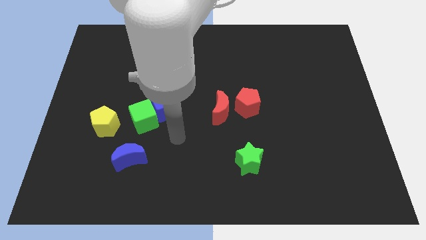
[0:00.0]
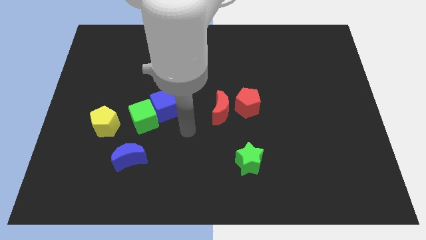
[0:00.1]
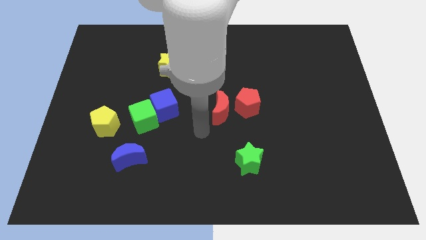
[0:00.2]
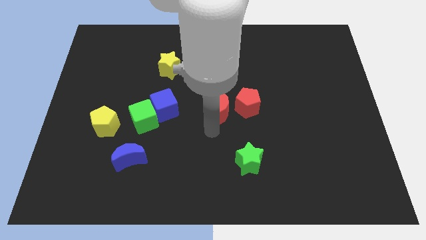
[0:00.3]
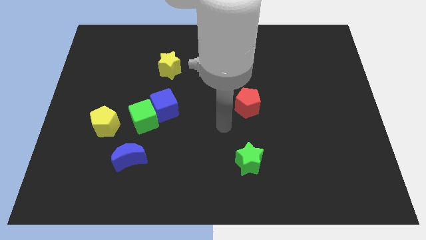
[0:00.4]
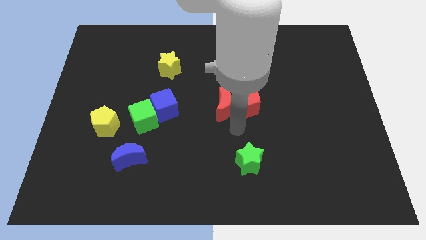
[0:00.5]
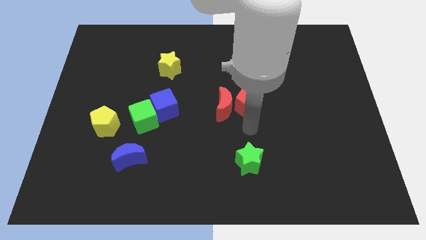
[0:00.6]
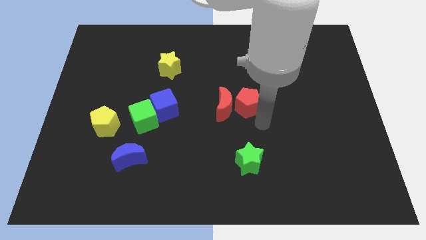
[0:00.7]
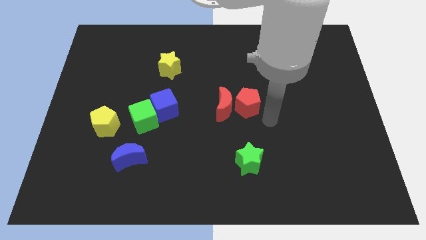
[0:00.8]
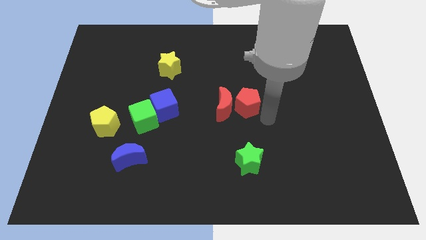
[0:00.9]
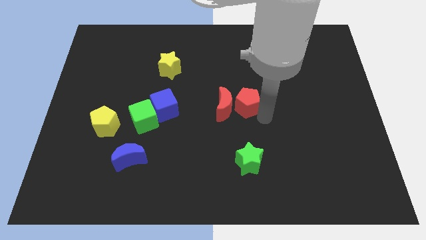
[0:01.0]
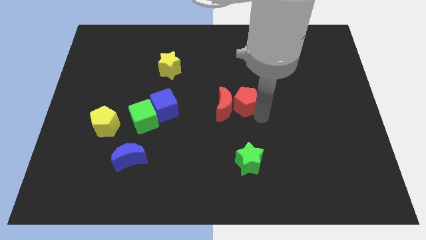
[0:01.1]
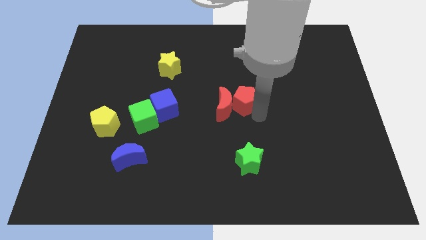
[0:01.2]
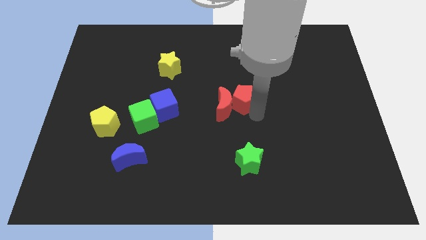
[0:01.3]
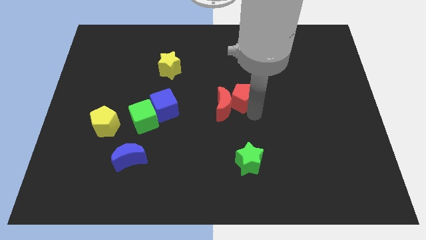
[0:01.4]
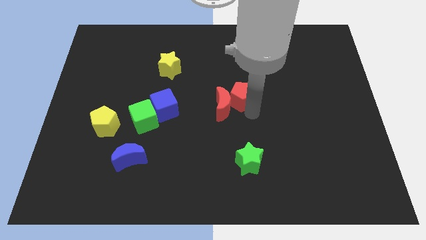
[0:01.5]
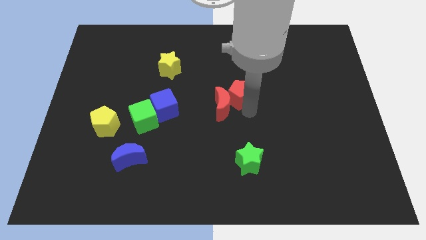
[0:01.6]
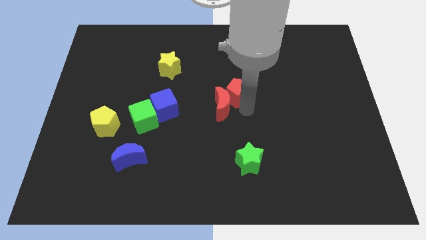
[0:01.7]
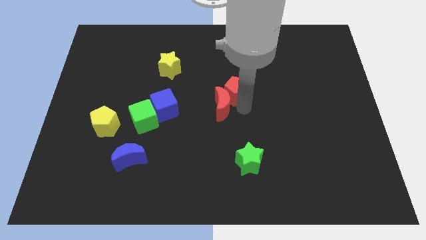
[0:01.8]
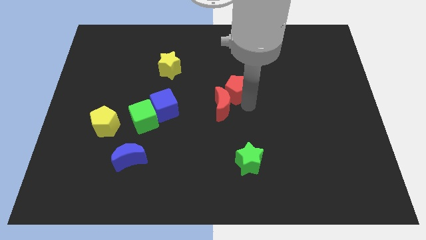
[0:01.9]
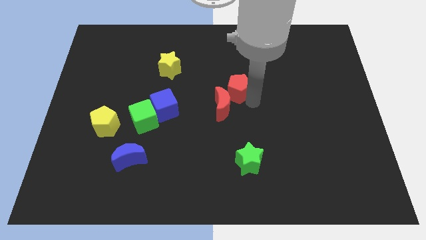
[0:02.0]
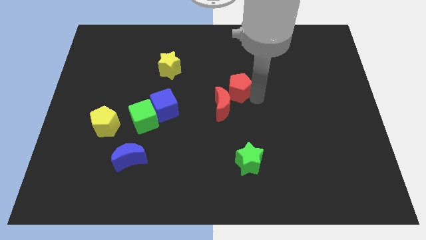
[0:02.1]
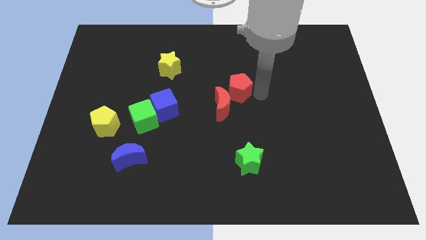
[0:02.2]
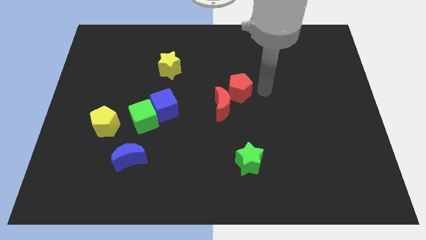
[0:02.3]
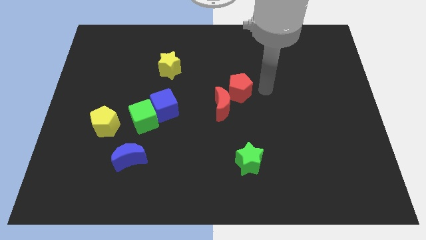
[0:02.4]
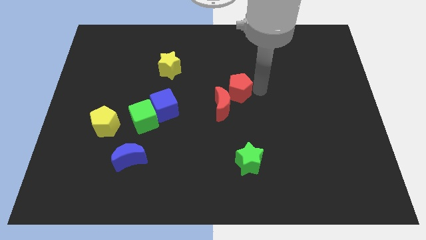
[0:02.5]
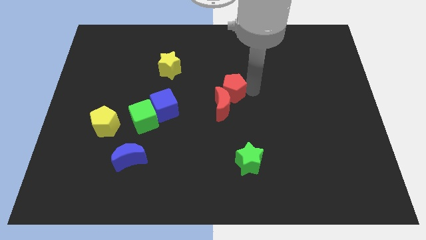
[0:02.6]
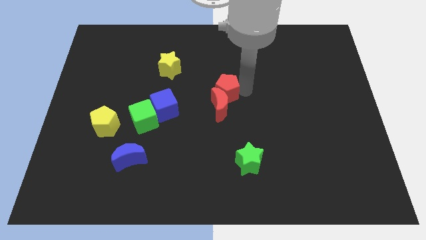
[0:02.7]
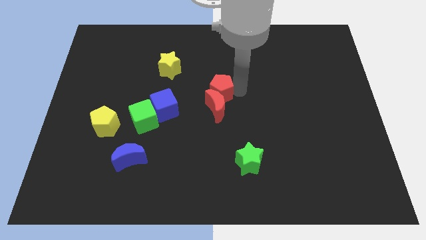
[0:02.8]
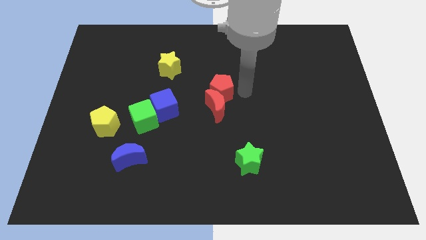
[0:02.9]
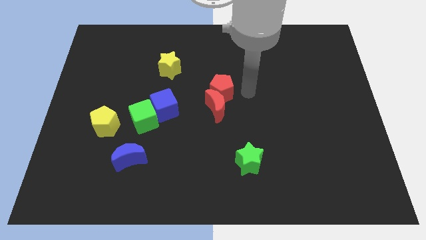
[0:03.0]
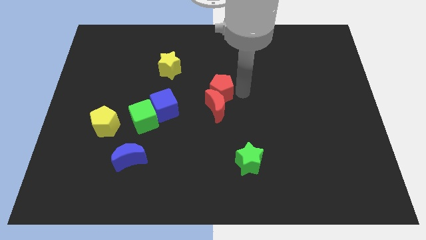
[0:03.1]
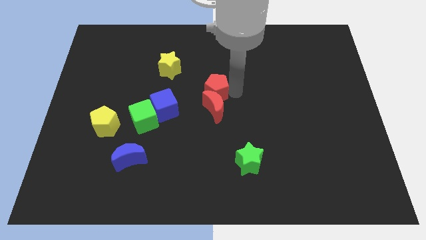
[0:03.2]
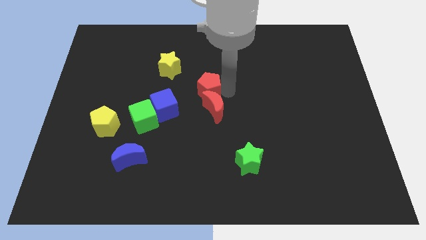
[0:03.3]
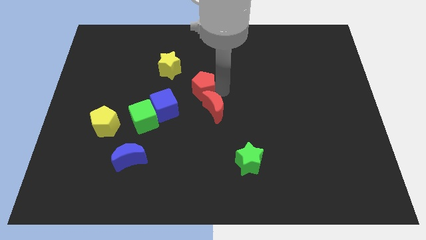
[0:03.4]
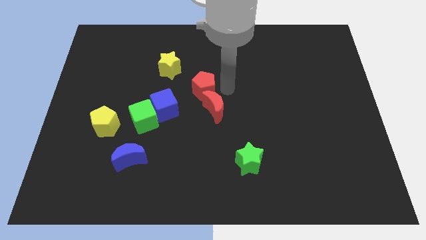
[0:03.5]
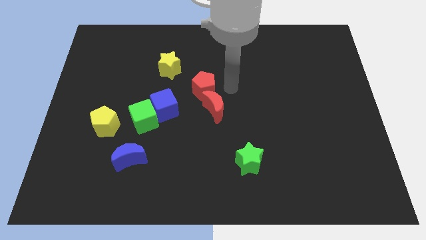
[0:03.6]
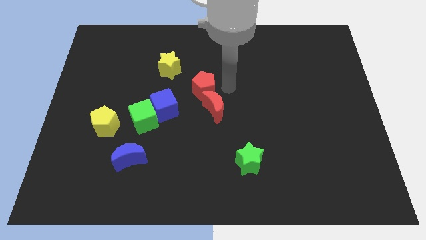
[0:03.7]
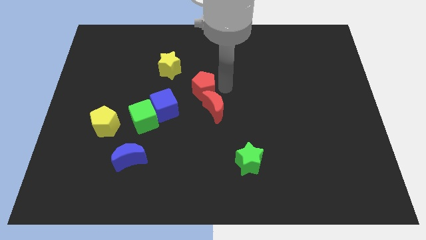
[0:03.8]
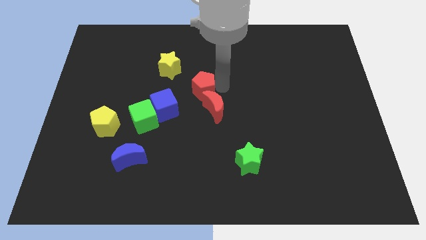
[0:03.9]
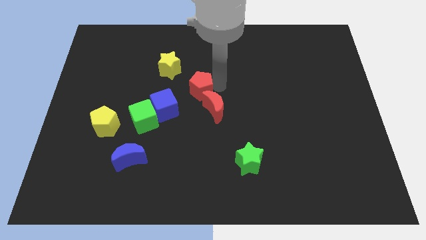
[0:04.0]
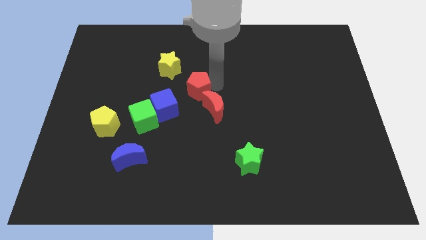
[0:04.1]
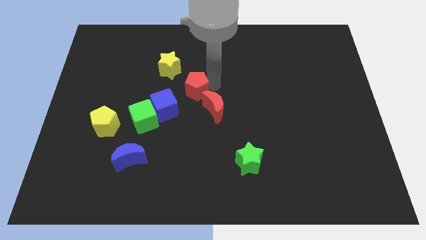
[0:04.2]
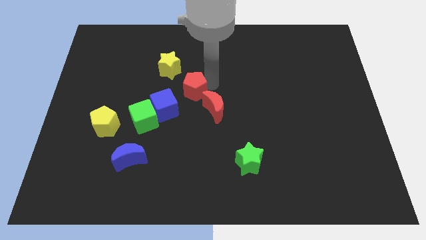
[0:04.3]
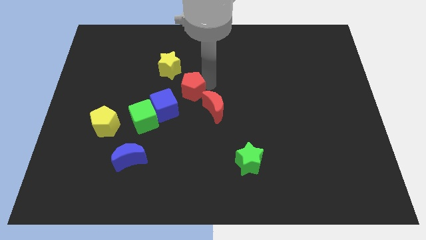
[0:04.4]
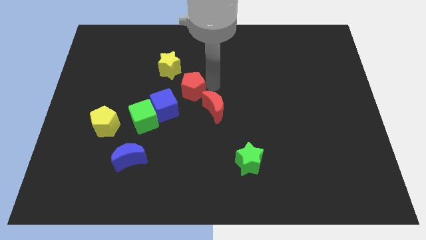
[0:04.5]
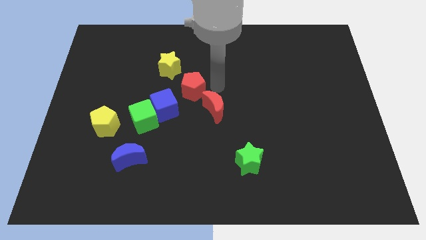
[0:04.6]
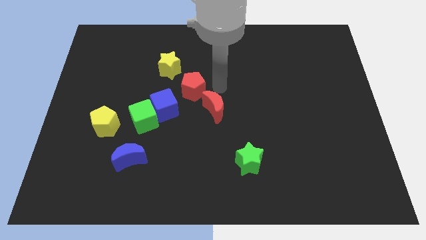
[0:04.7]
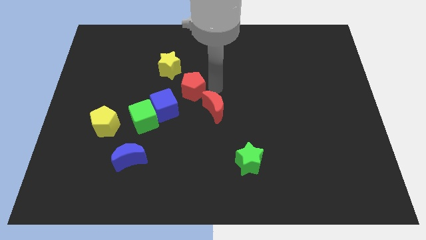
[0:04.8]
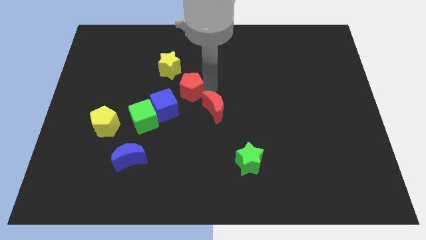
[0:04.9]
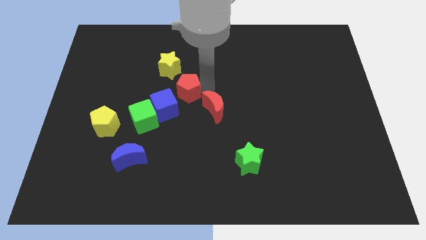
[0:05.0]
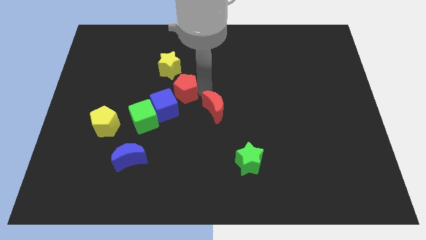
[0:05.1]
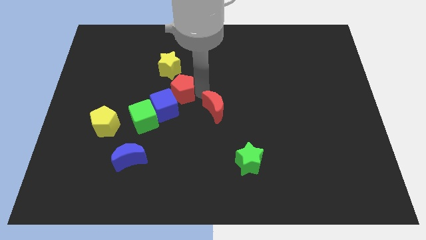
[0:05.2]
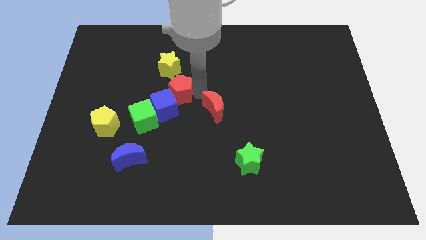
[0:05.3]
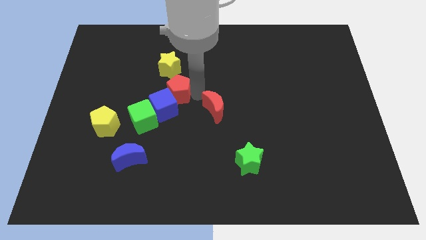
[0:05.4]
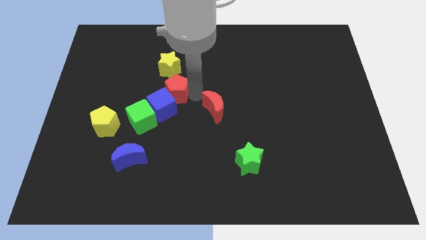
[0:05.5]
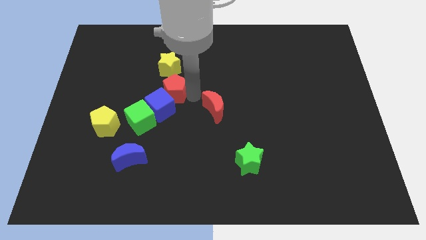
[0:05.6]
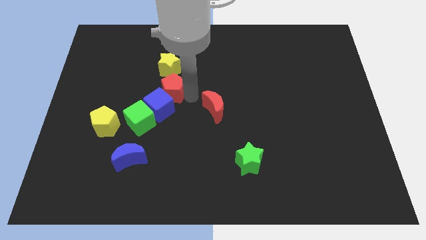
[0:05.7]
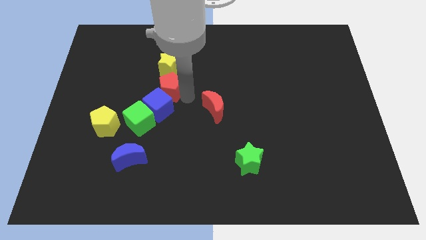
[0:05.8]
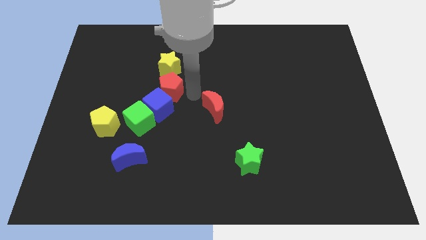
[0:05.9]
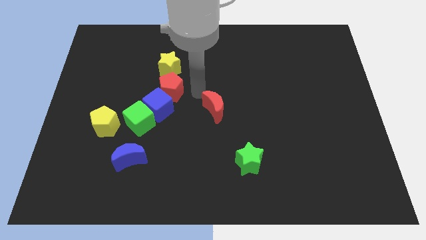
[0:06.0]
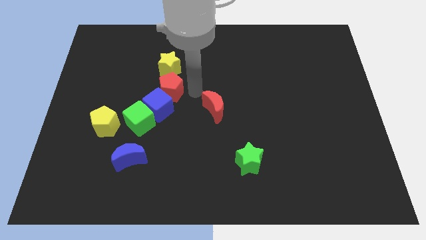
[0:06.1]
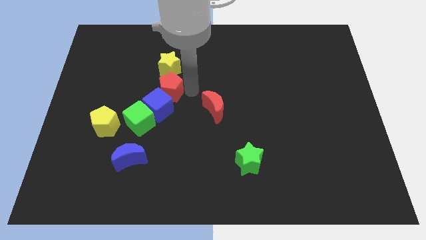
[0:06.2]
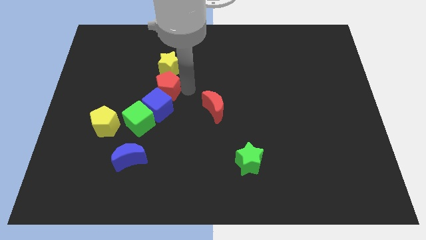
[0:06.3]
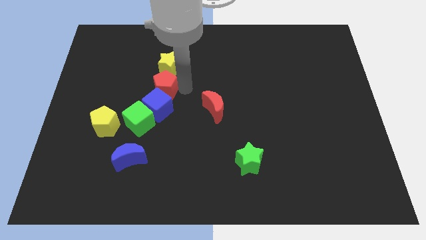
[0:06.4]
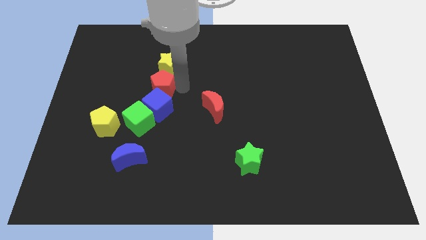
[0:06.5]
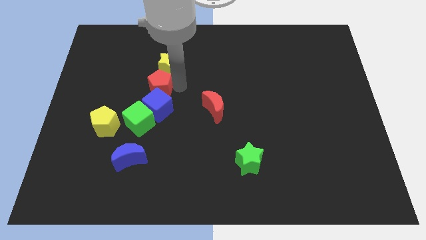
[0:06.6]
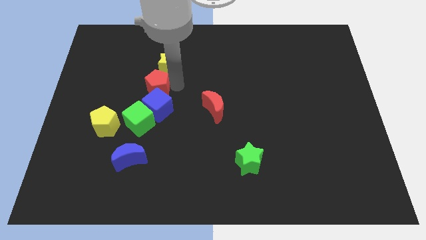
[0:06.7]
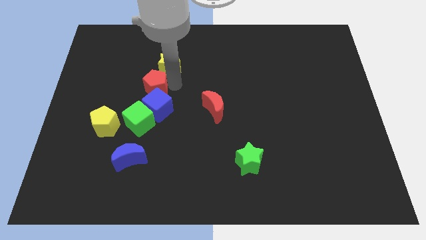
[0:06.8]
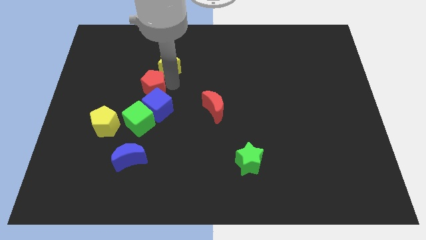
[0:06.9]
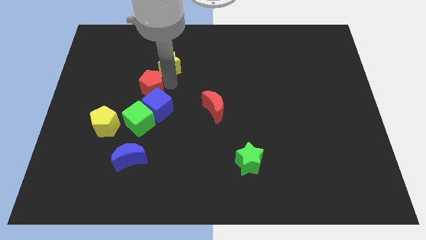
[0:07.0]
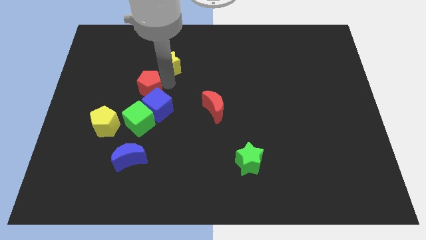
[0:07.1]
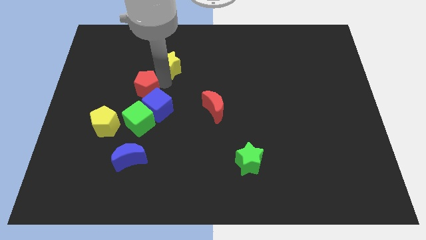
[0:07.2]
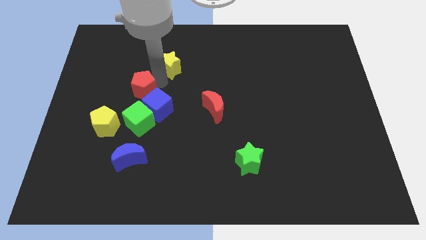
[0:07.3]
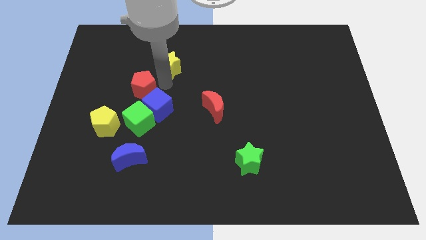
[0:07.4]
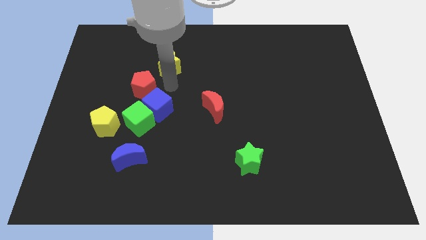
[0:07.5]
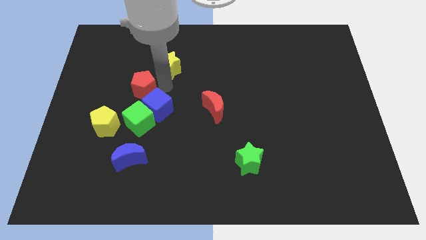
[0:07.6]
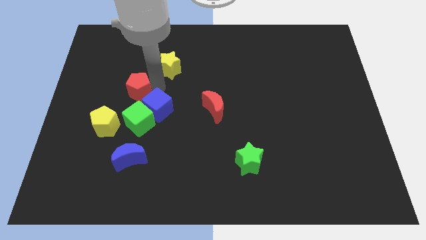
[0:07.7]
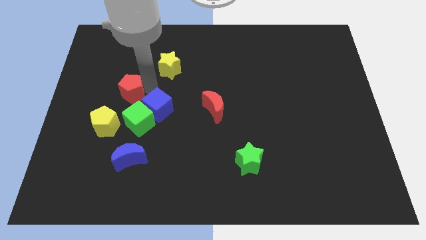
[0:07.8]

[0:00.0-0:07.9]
move the red pentagon to the top side of the yellow pentagon
